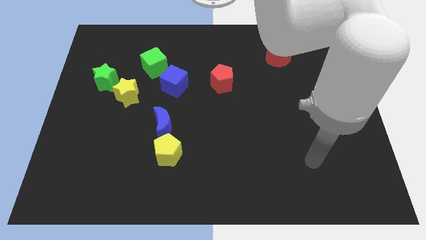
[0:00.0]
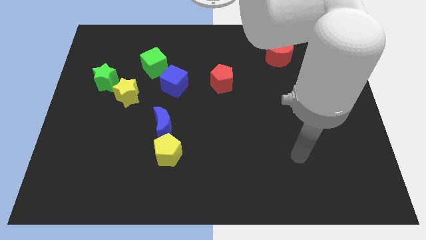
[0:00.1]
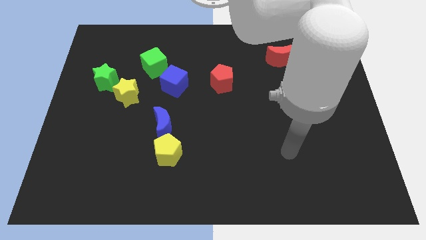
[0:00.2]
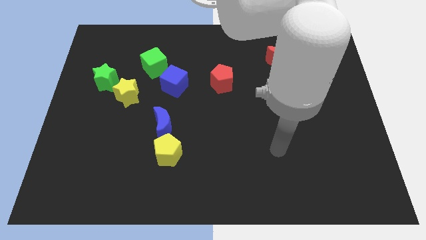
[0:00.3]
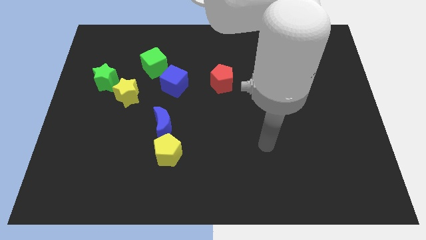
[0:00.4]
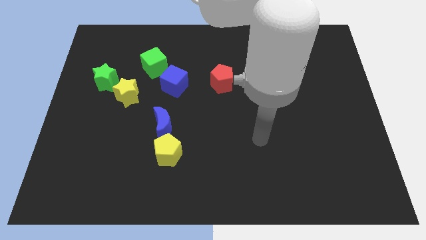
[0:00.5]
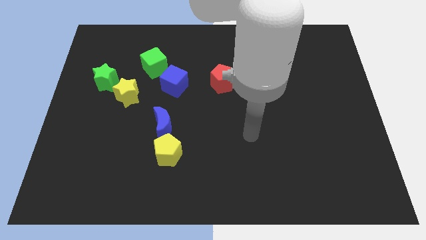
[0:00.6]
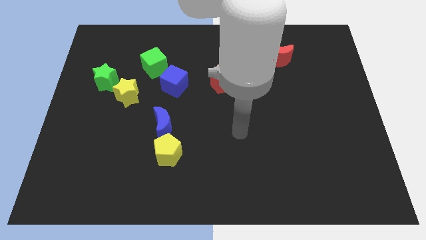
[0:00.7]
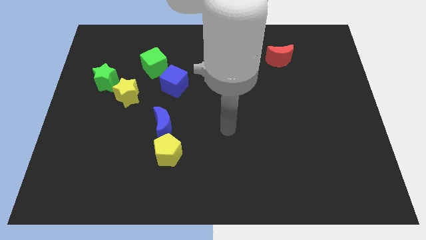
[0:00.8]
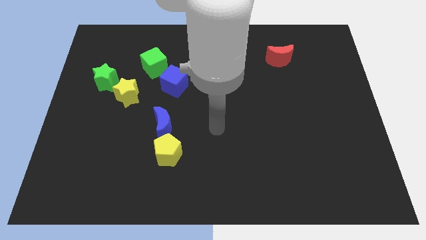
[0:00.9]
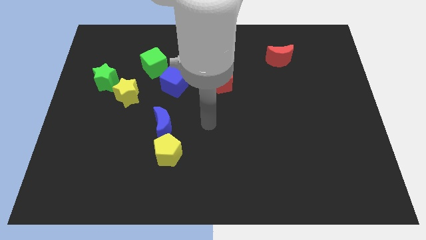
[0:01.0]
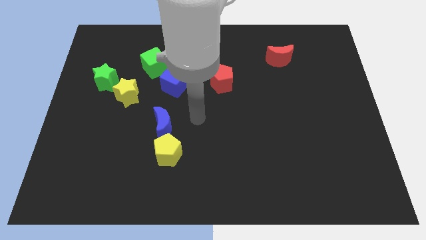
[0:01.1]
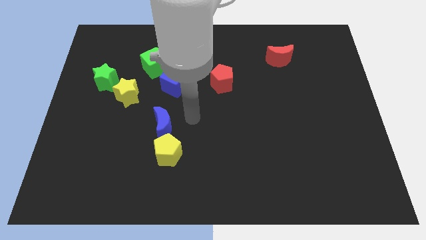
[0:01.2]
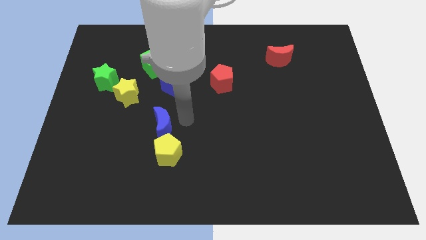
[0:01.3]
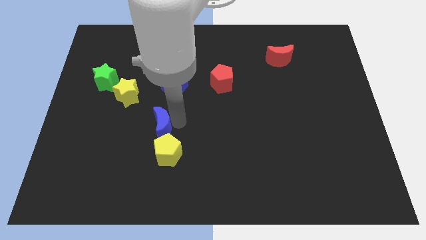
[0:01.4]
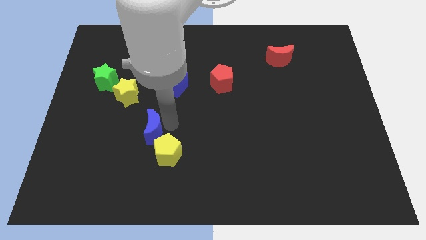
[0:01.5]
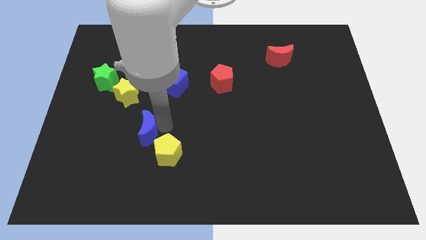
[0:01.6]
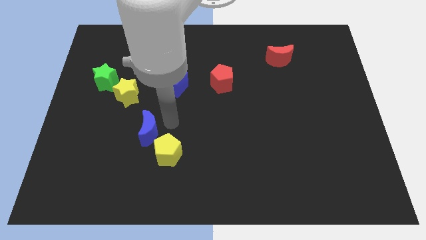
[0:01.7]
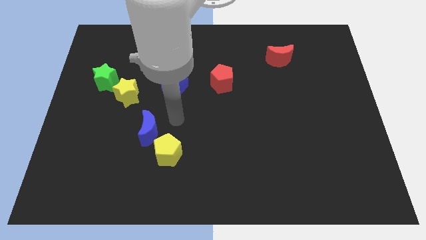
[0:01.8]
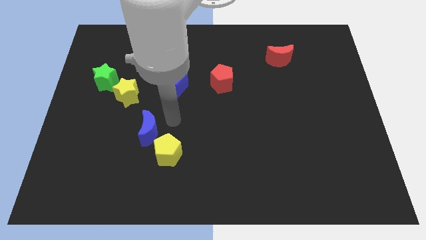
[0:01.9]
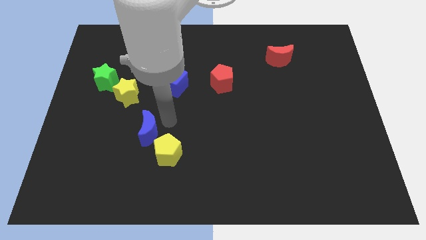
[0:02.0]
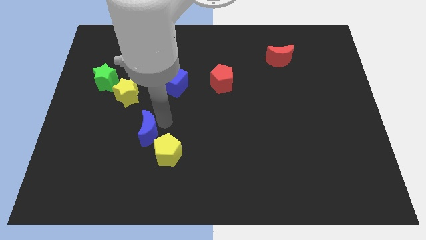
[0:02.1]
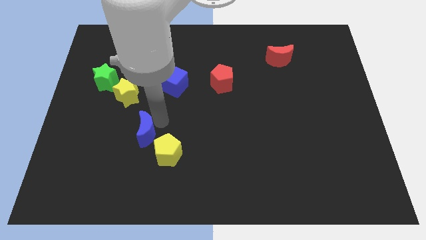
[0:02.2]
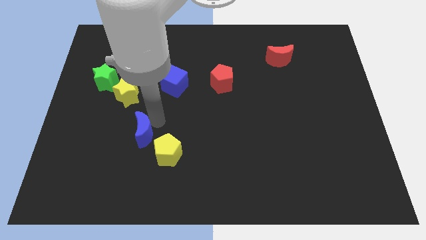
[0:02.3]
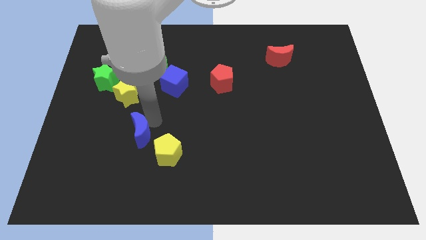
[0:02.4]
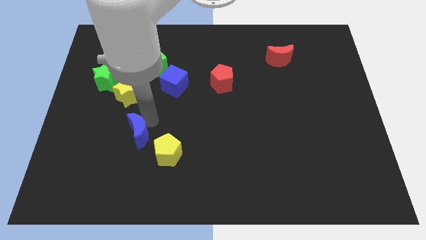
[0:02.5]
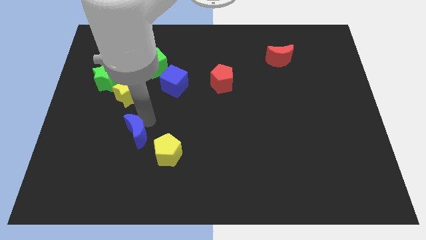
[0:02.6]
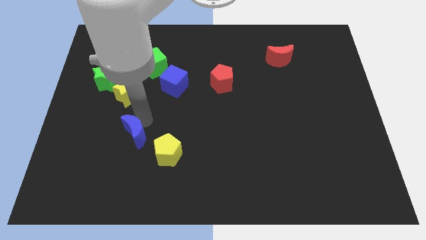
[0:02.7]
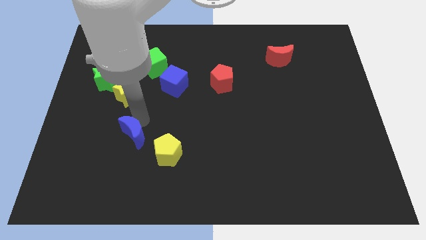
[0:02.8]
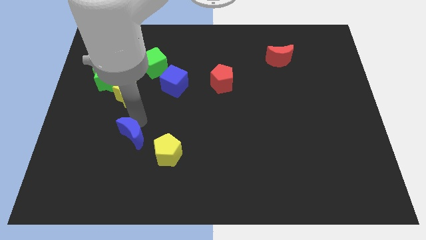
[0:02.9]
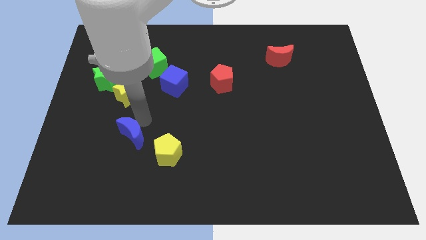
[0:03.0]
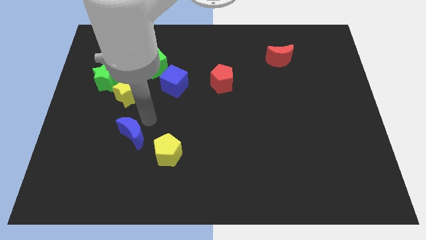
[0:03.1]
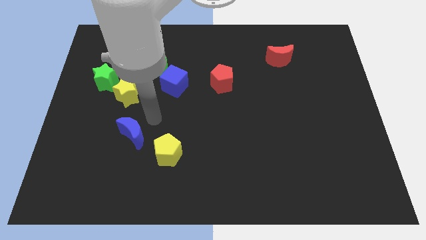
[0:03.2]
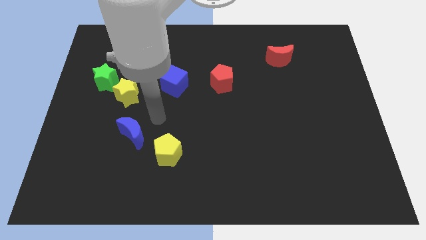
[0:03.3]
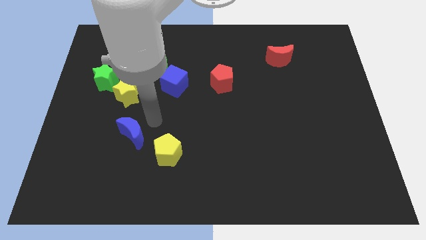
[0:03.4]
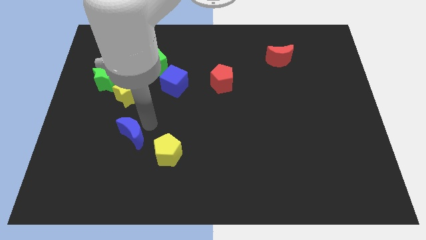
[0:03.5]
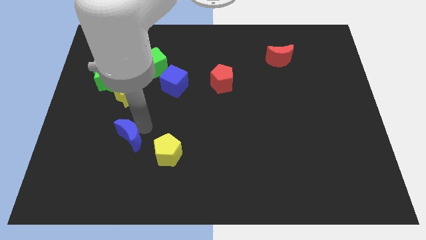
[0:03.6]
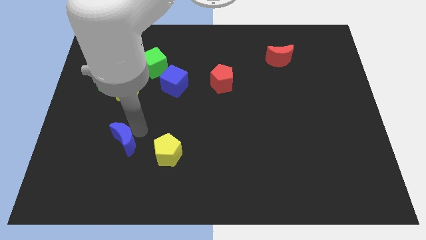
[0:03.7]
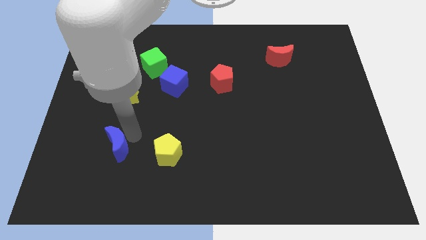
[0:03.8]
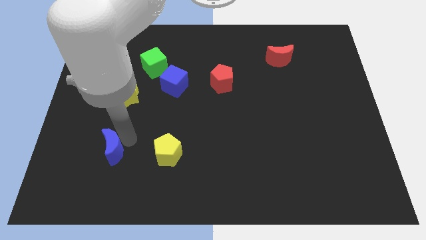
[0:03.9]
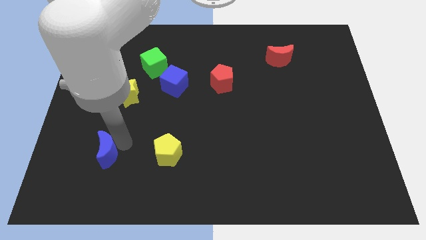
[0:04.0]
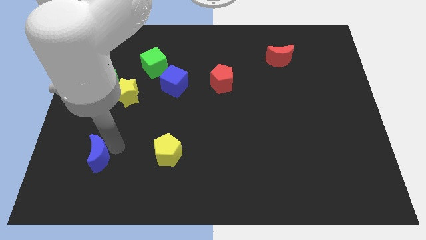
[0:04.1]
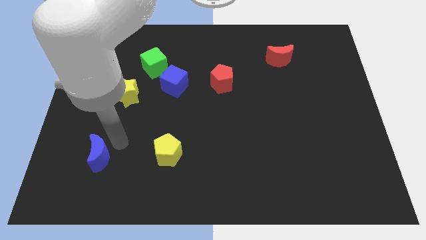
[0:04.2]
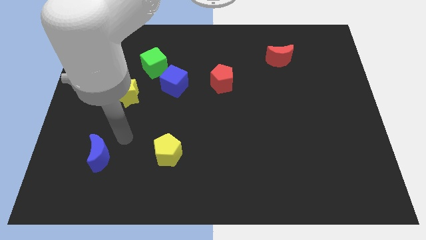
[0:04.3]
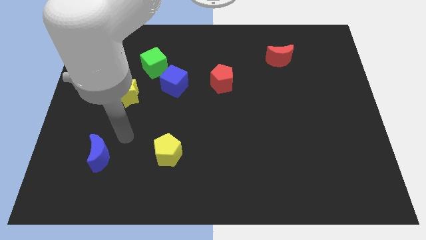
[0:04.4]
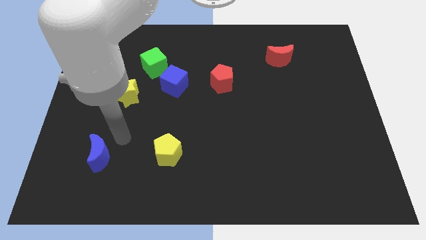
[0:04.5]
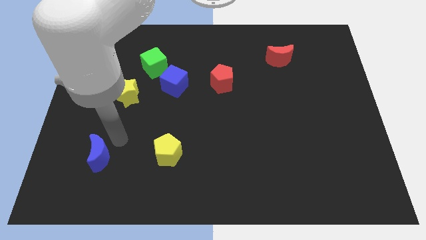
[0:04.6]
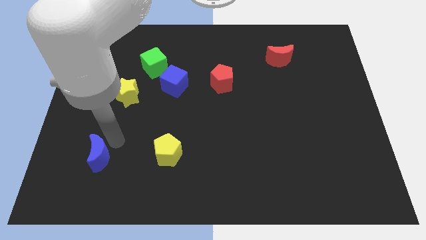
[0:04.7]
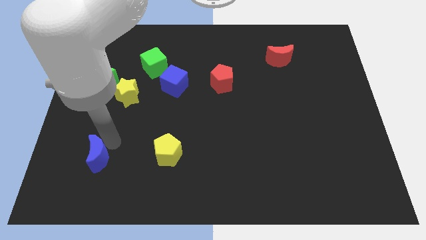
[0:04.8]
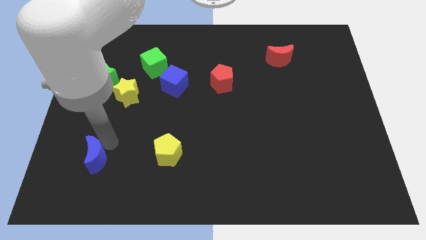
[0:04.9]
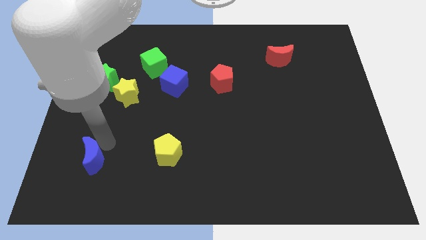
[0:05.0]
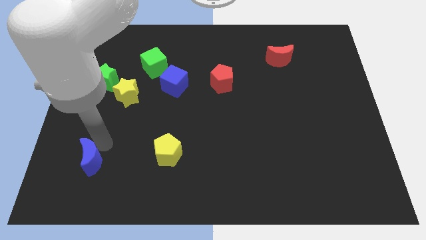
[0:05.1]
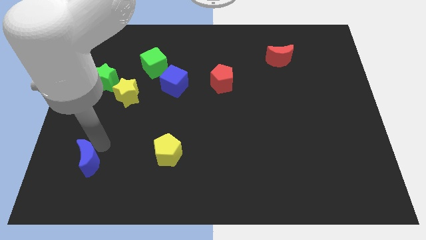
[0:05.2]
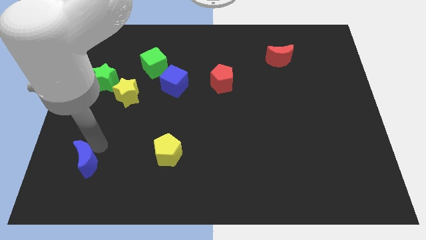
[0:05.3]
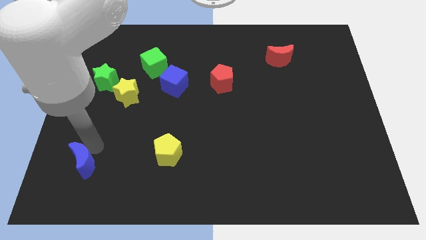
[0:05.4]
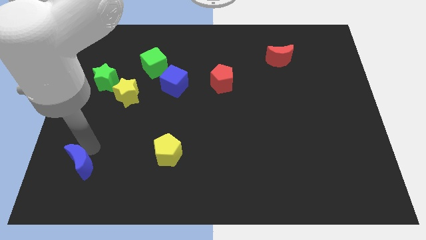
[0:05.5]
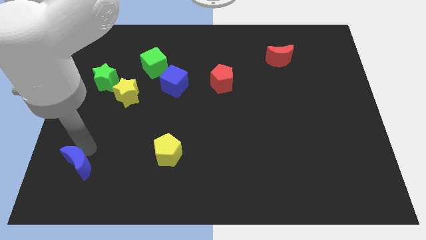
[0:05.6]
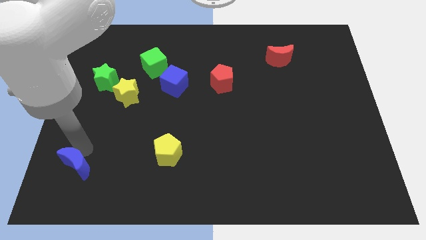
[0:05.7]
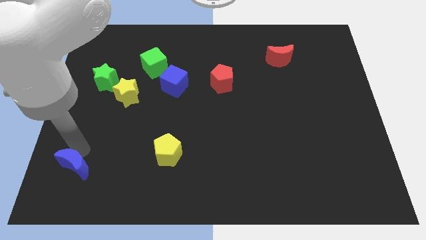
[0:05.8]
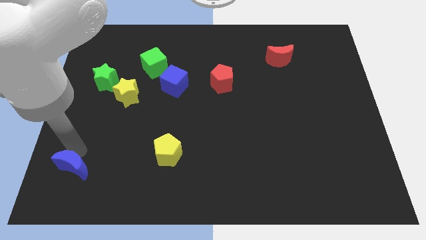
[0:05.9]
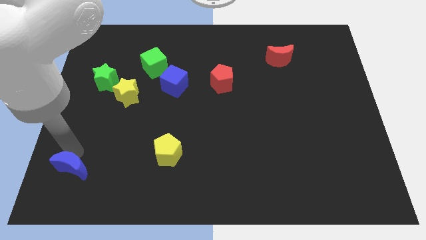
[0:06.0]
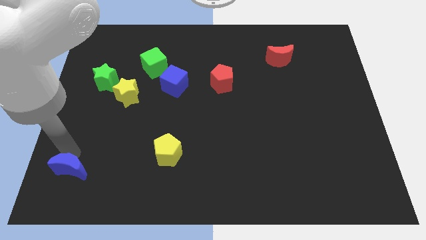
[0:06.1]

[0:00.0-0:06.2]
slide the blue moon to the lower left corner

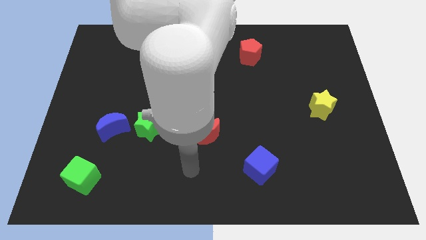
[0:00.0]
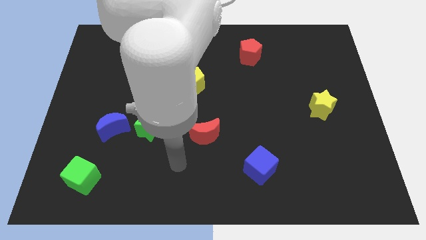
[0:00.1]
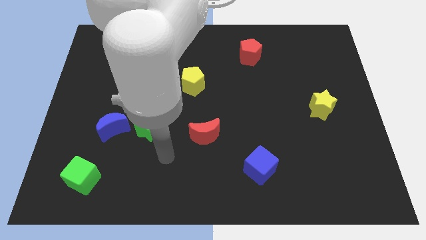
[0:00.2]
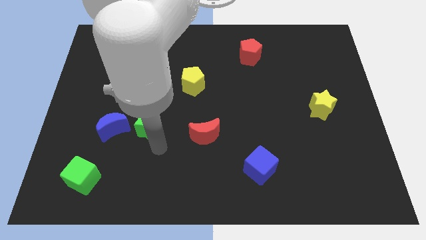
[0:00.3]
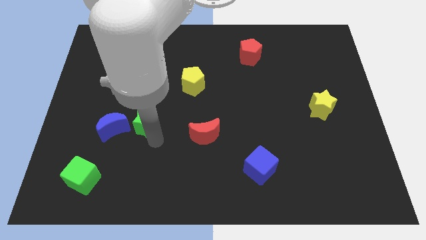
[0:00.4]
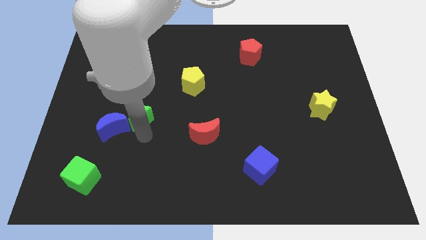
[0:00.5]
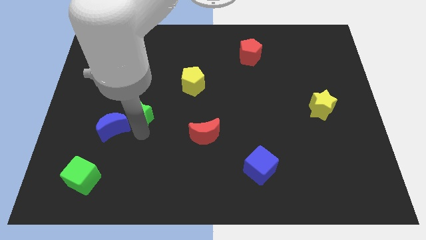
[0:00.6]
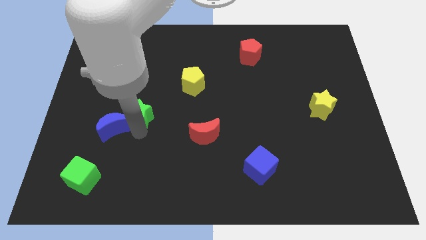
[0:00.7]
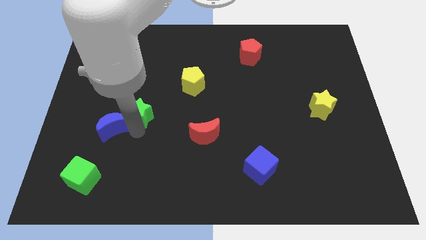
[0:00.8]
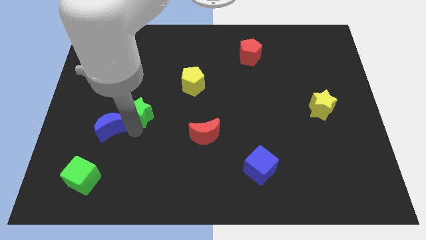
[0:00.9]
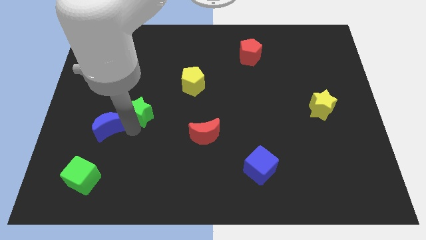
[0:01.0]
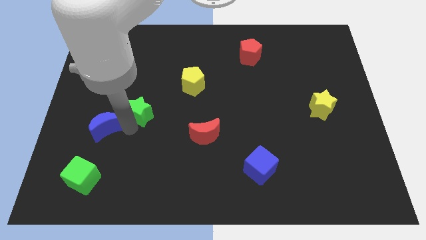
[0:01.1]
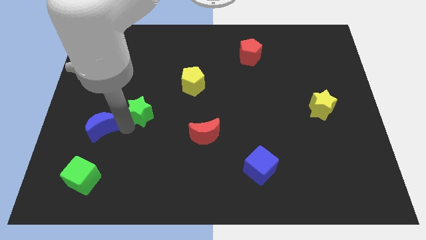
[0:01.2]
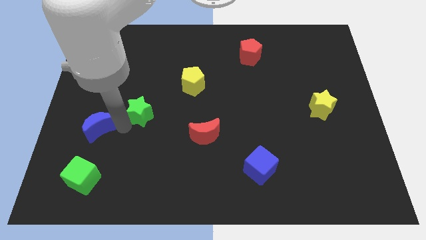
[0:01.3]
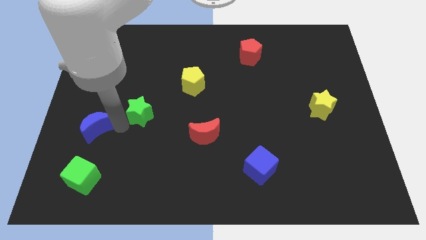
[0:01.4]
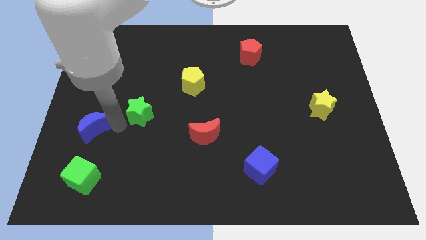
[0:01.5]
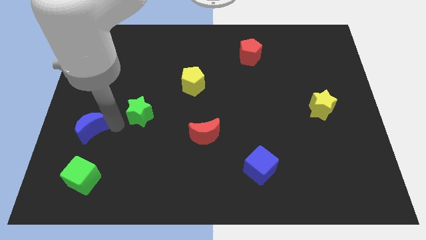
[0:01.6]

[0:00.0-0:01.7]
push the blue moon to the center left
